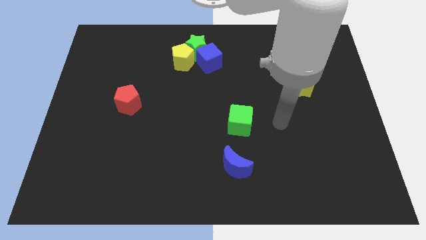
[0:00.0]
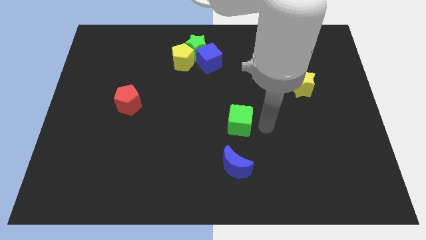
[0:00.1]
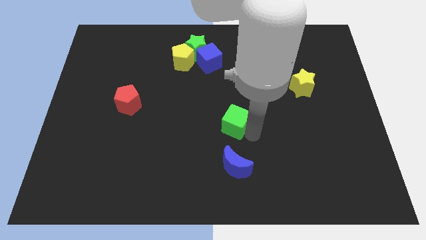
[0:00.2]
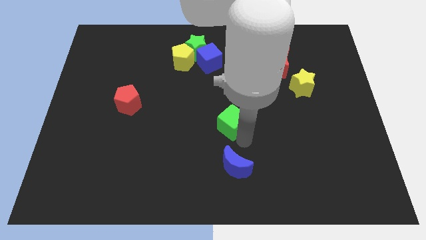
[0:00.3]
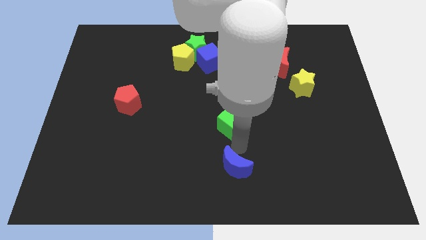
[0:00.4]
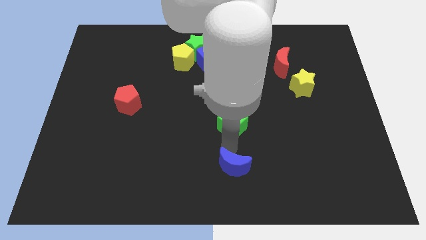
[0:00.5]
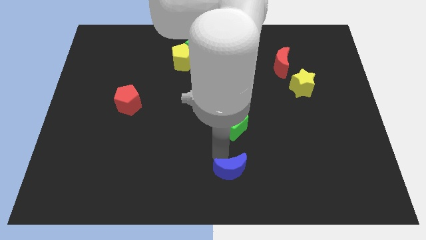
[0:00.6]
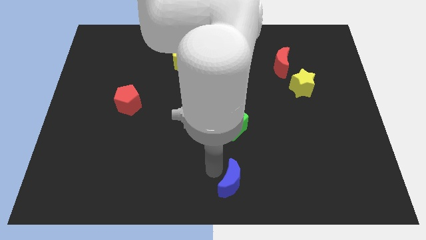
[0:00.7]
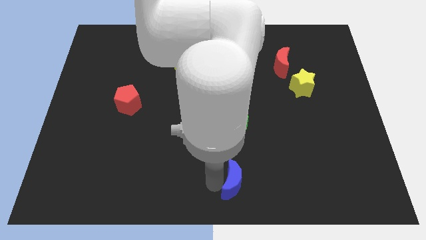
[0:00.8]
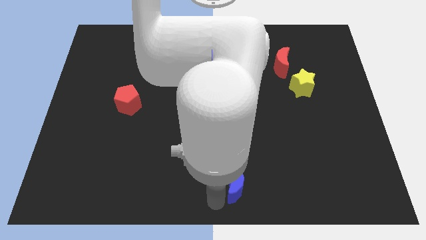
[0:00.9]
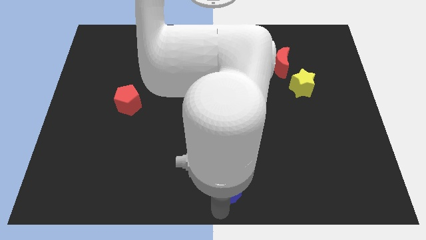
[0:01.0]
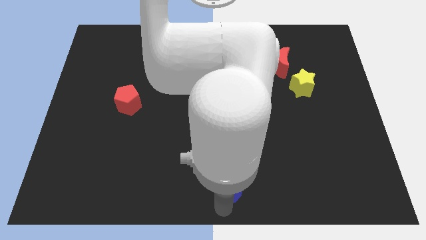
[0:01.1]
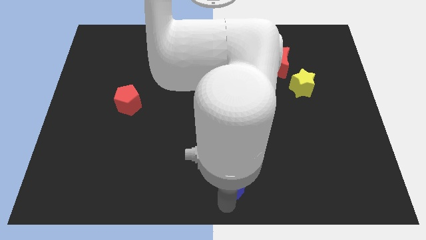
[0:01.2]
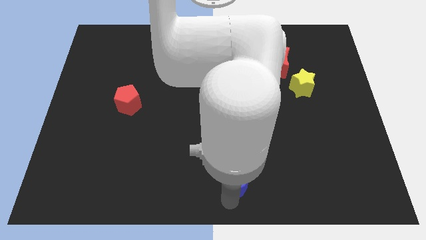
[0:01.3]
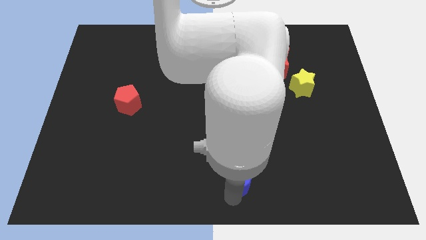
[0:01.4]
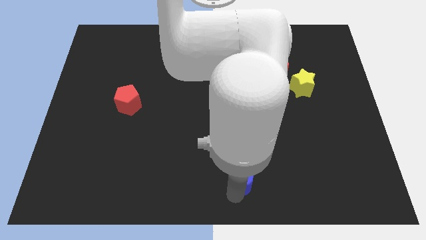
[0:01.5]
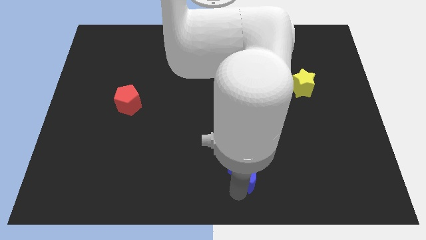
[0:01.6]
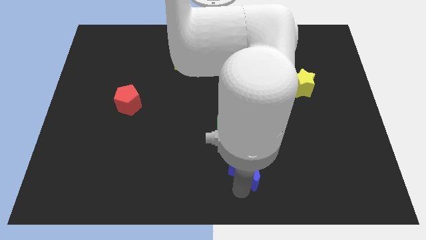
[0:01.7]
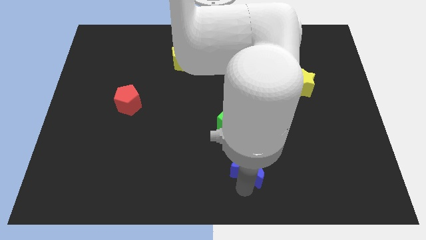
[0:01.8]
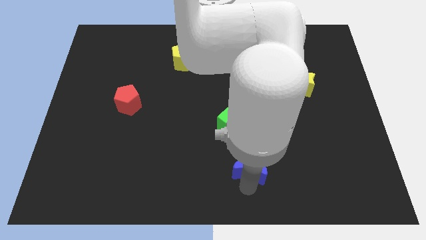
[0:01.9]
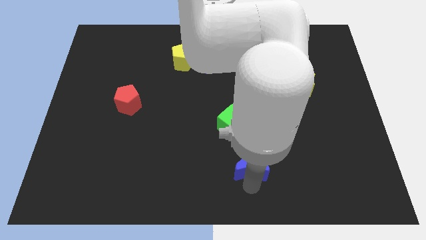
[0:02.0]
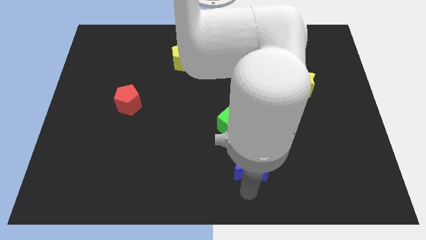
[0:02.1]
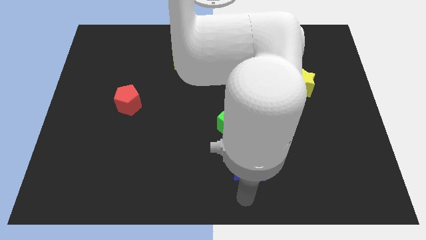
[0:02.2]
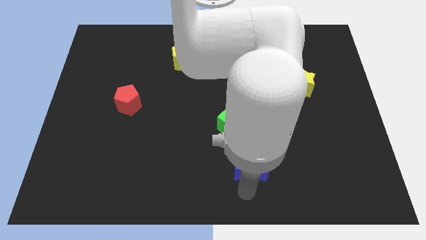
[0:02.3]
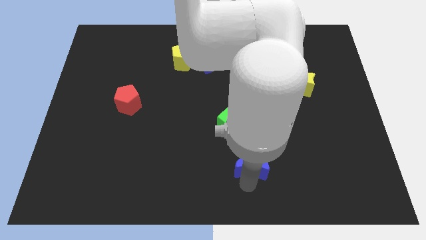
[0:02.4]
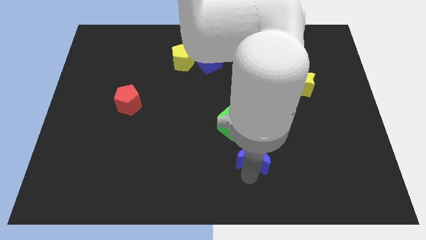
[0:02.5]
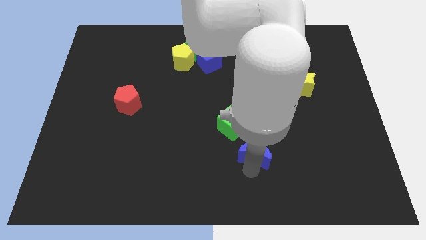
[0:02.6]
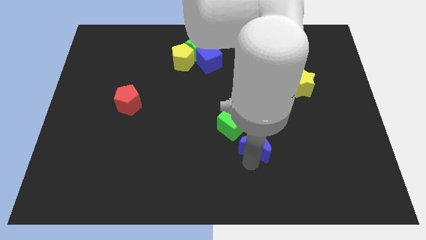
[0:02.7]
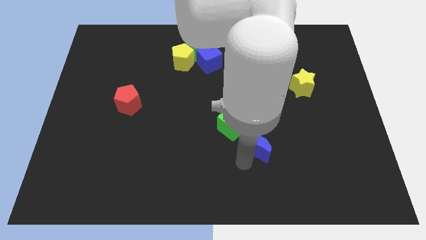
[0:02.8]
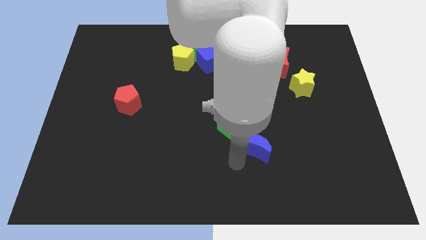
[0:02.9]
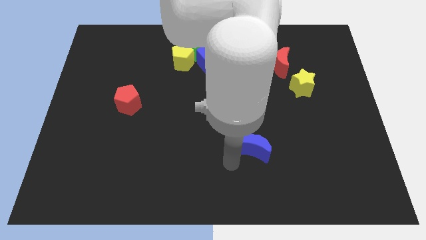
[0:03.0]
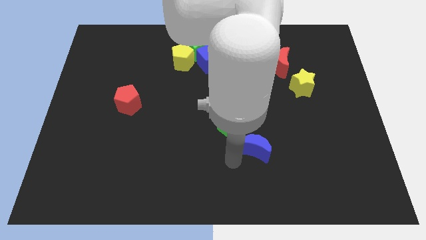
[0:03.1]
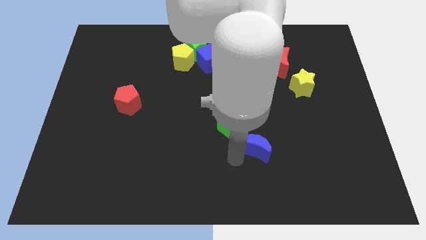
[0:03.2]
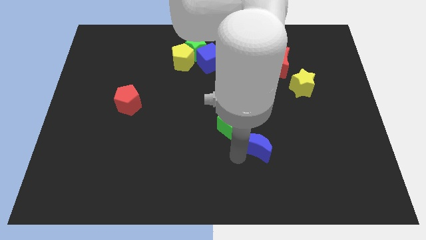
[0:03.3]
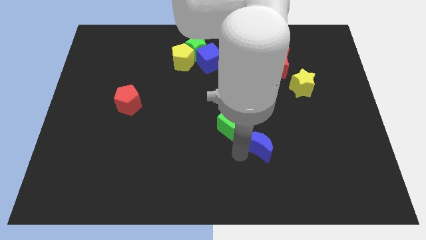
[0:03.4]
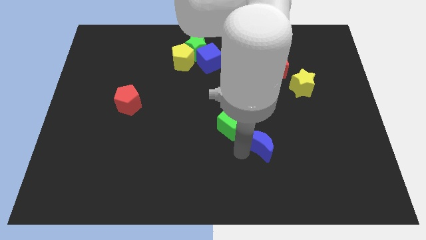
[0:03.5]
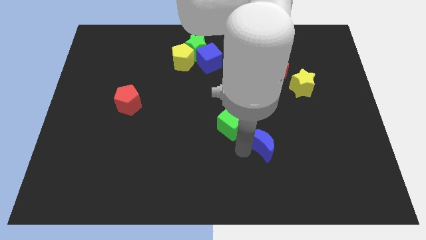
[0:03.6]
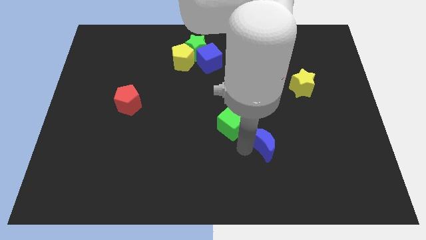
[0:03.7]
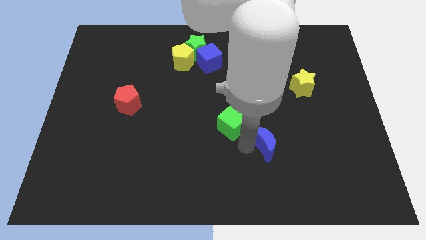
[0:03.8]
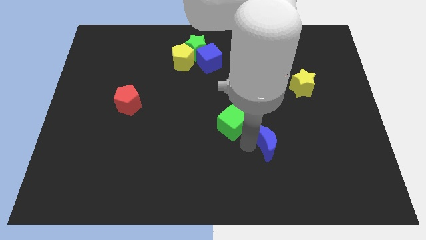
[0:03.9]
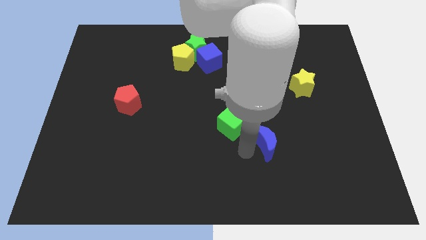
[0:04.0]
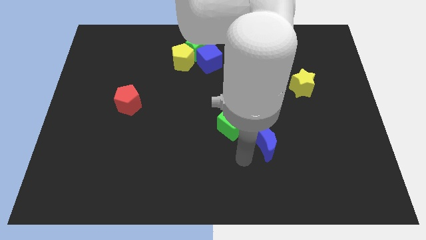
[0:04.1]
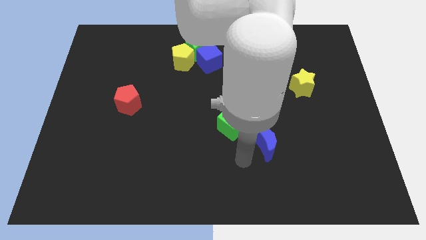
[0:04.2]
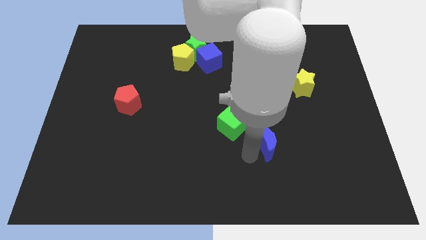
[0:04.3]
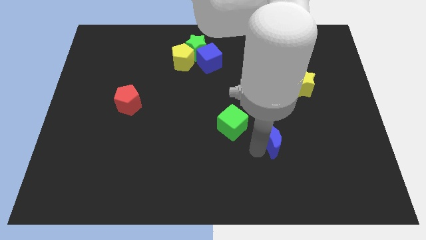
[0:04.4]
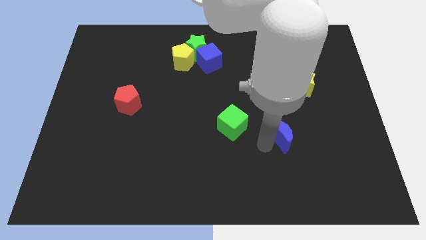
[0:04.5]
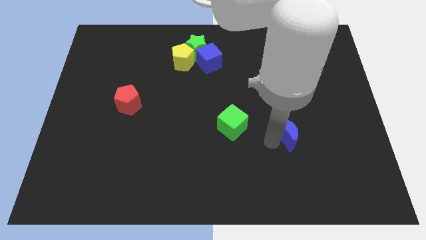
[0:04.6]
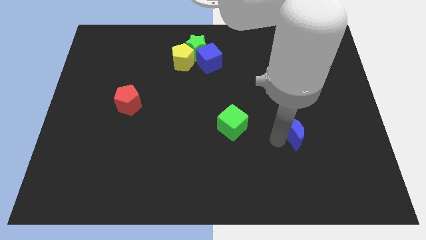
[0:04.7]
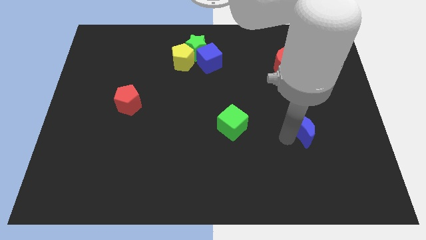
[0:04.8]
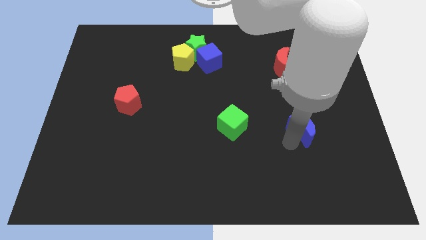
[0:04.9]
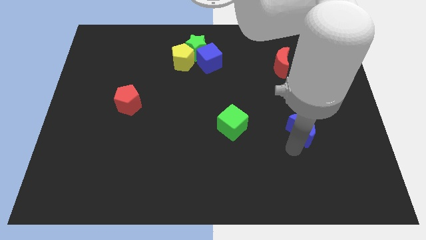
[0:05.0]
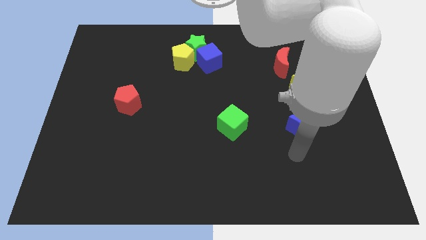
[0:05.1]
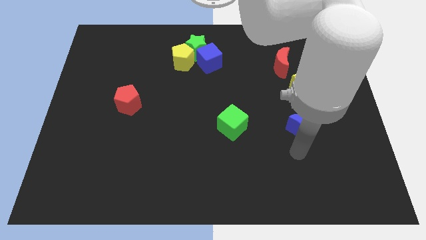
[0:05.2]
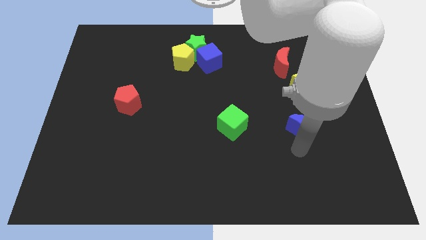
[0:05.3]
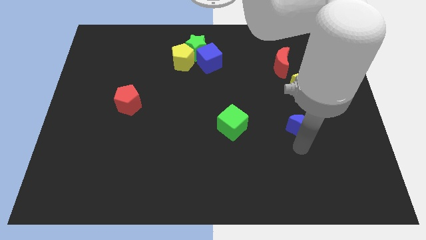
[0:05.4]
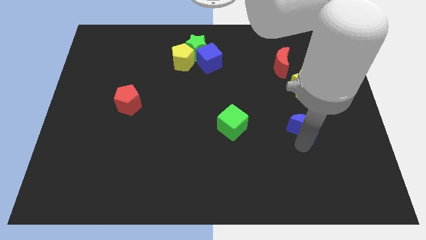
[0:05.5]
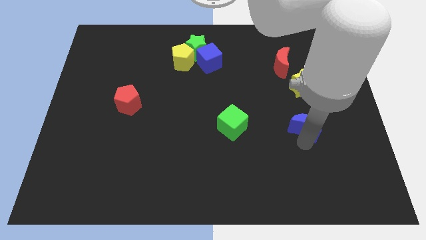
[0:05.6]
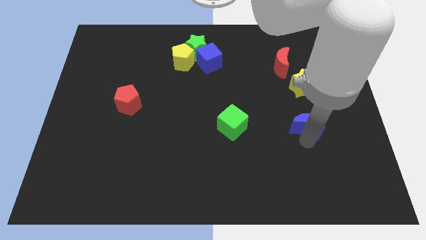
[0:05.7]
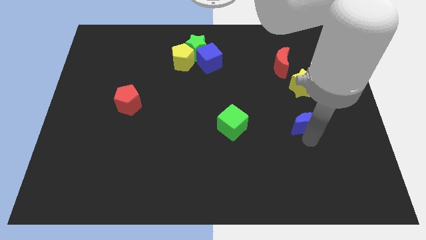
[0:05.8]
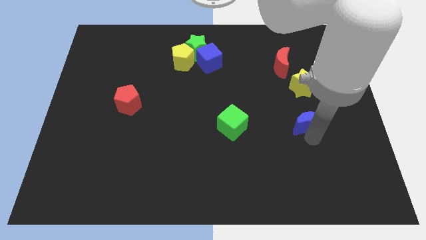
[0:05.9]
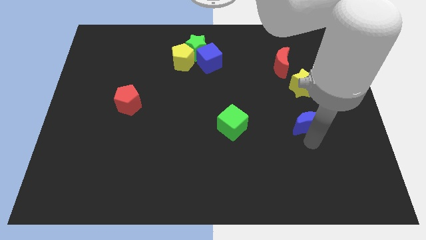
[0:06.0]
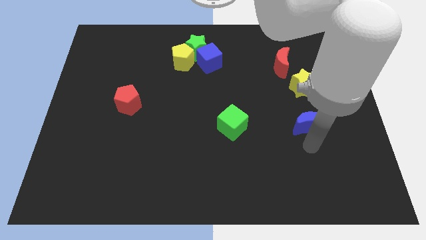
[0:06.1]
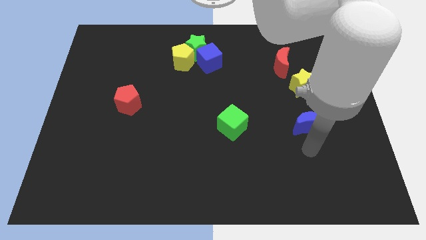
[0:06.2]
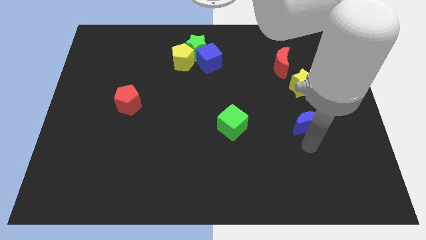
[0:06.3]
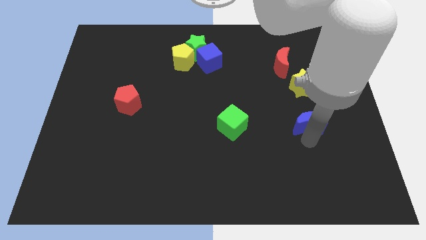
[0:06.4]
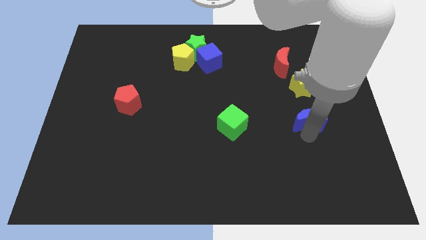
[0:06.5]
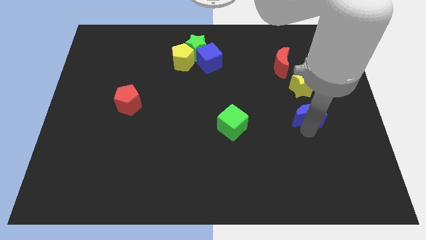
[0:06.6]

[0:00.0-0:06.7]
move the blue moon upwards and then to the right

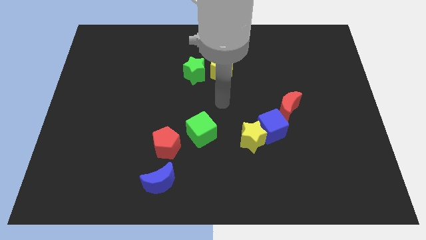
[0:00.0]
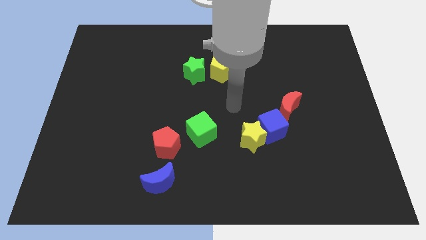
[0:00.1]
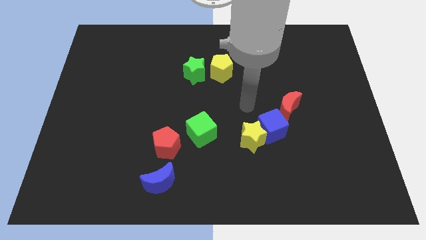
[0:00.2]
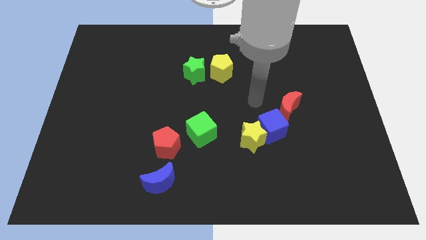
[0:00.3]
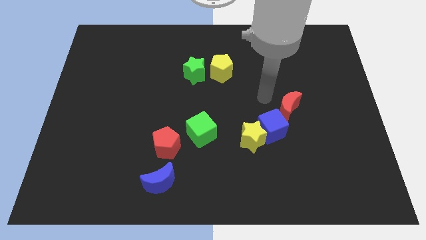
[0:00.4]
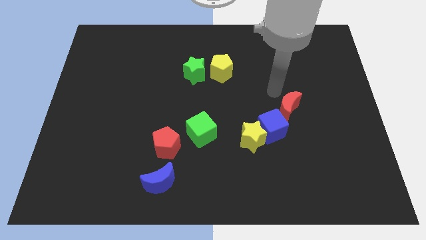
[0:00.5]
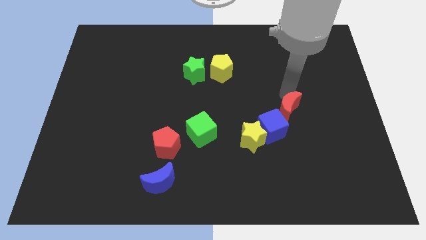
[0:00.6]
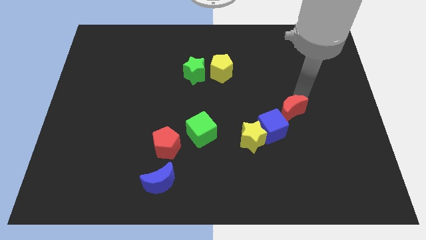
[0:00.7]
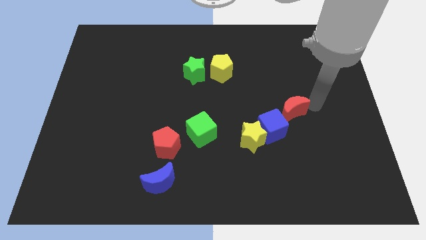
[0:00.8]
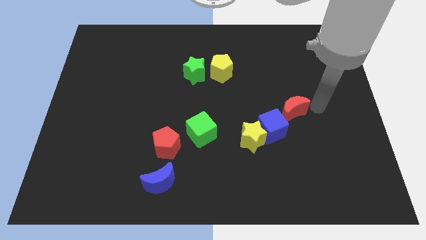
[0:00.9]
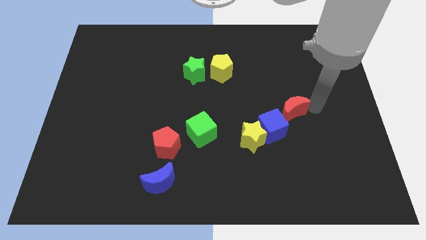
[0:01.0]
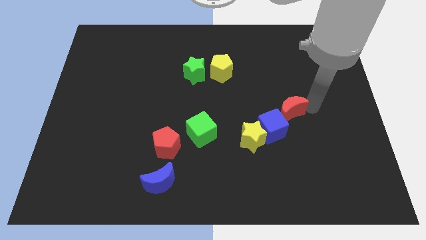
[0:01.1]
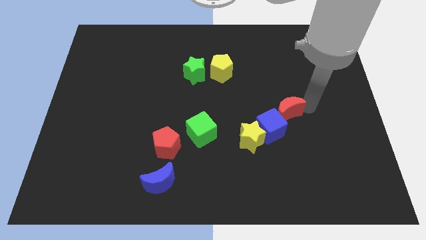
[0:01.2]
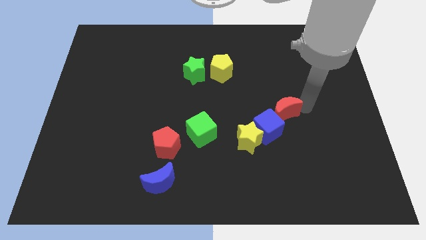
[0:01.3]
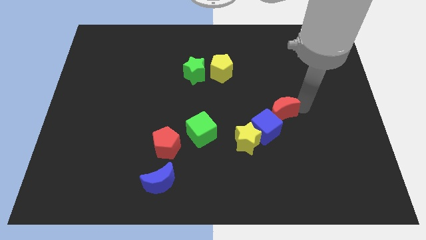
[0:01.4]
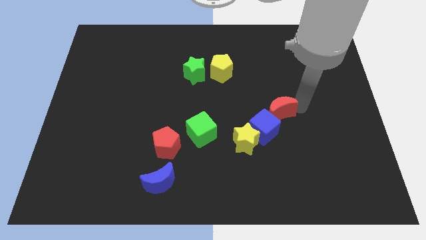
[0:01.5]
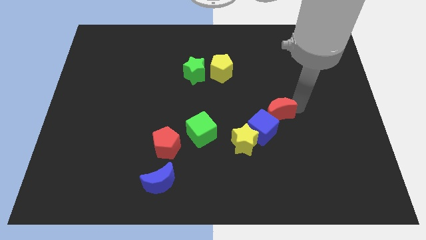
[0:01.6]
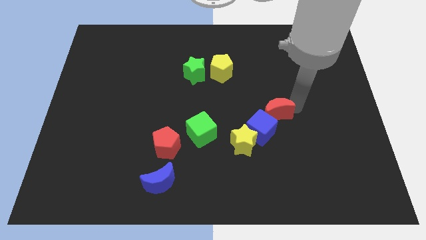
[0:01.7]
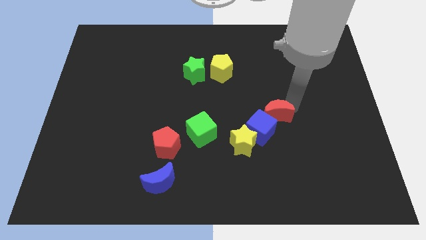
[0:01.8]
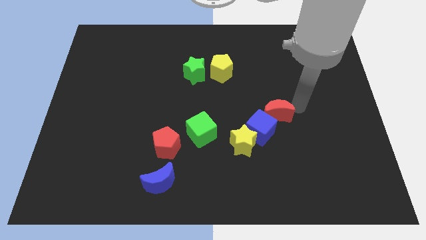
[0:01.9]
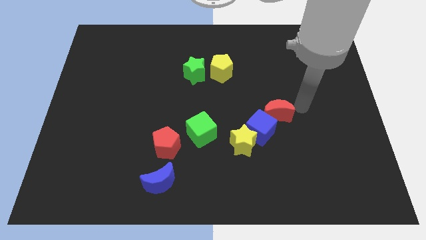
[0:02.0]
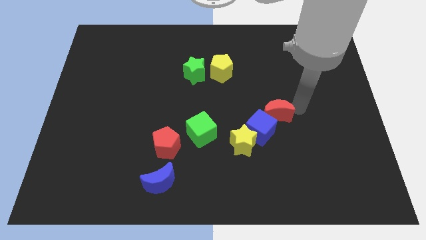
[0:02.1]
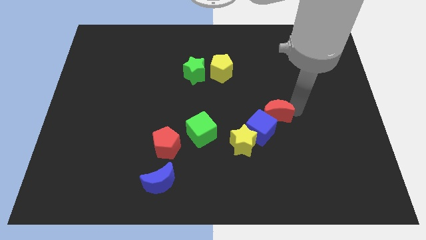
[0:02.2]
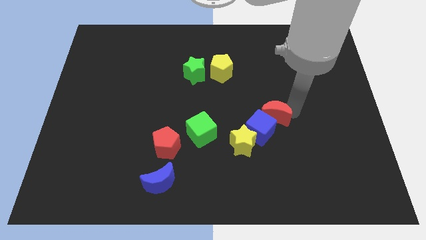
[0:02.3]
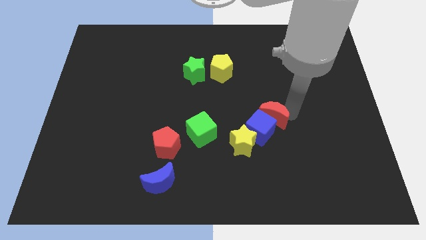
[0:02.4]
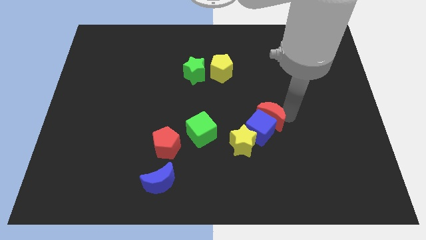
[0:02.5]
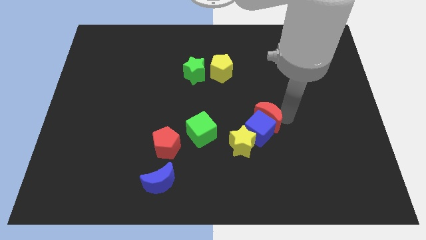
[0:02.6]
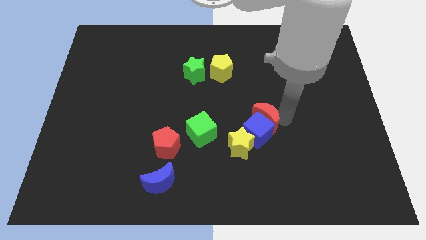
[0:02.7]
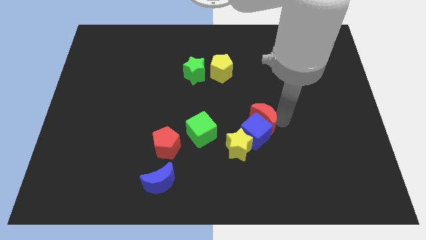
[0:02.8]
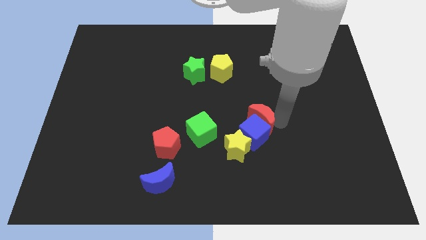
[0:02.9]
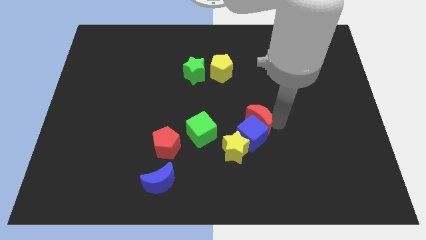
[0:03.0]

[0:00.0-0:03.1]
slightly move the red moon down and then left
